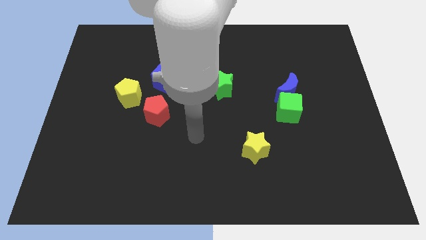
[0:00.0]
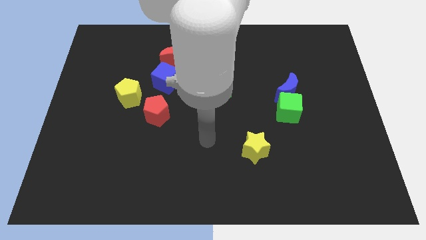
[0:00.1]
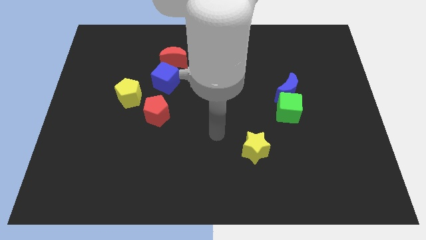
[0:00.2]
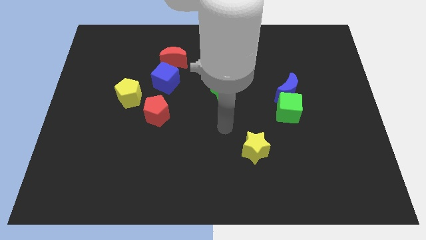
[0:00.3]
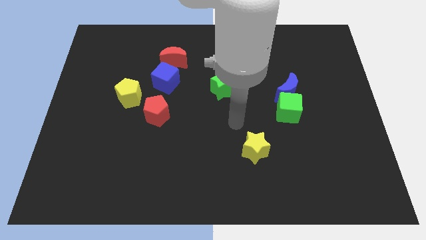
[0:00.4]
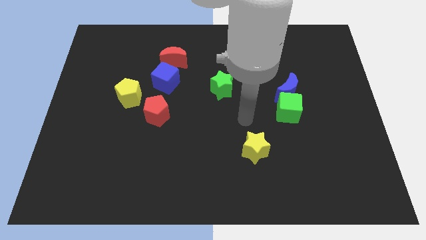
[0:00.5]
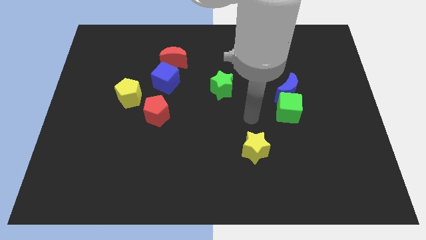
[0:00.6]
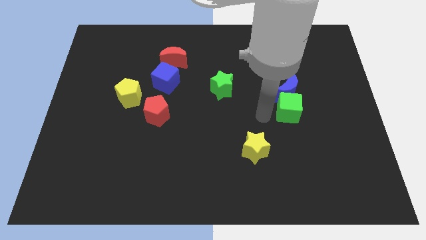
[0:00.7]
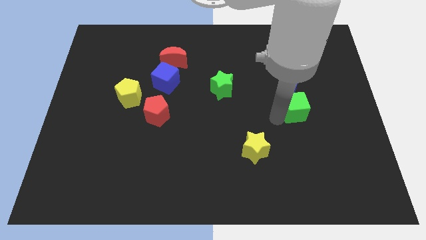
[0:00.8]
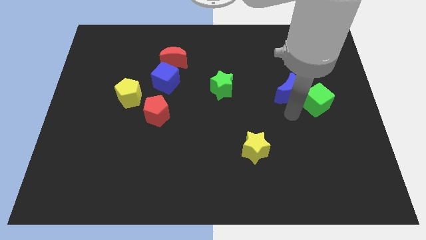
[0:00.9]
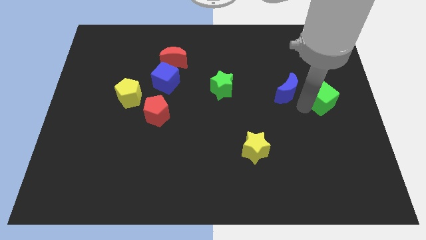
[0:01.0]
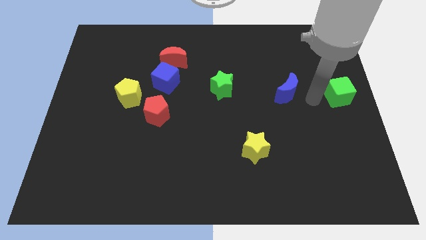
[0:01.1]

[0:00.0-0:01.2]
separate the blue moon from the green cube

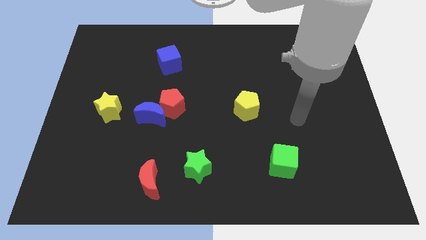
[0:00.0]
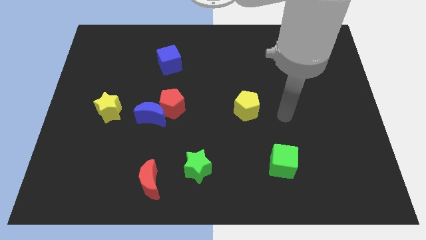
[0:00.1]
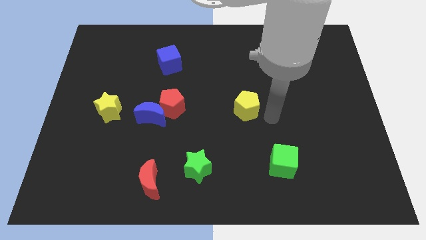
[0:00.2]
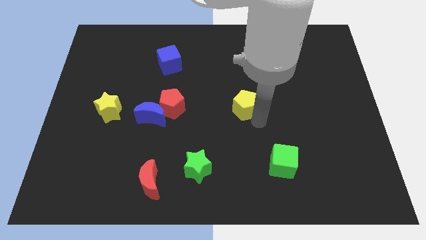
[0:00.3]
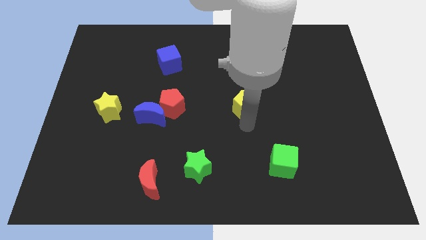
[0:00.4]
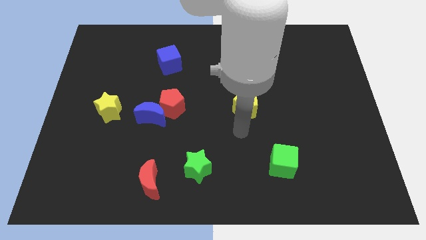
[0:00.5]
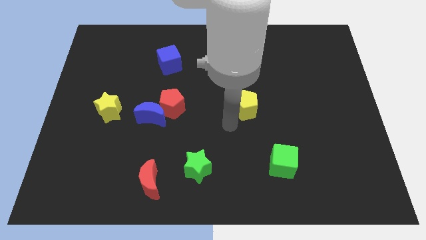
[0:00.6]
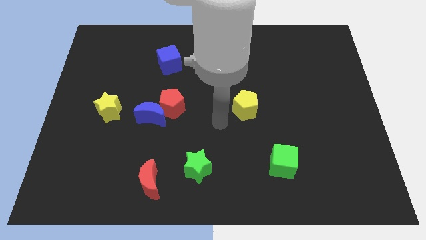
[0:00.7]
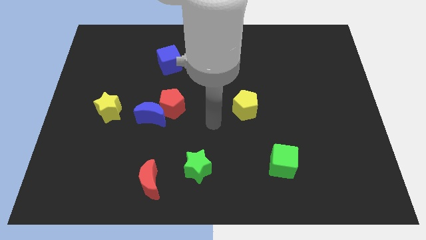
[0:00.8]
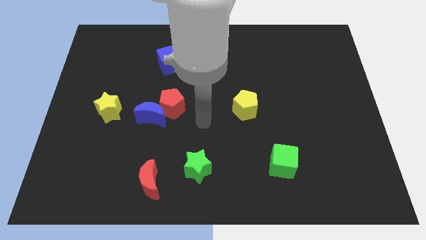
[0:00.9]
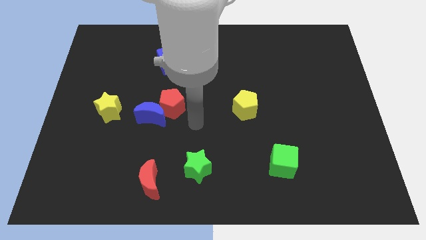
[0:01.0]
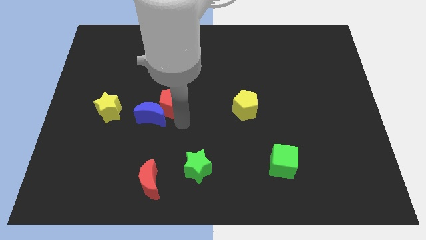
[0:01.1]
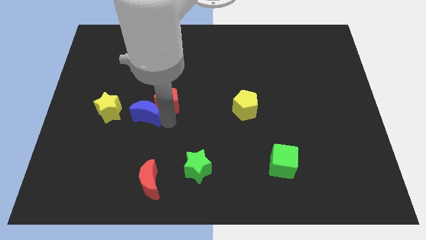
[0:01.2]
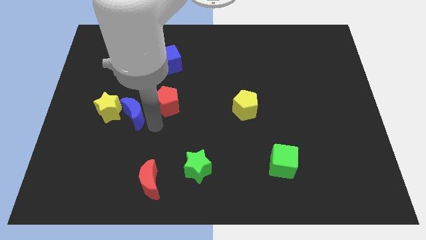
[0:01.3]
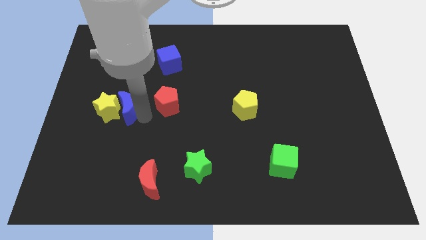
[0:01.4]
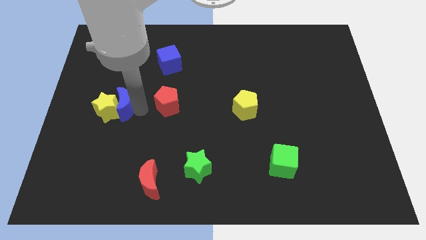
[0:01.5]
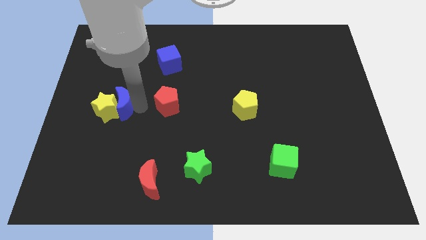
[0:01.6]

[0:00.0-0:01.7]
separate the red pentagon from the blue moon

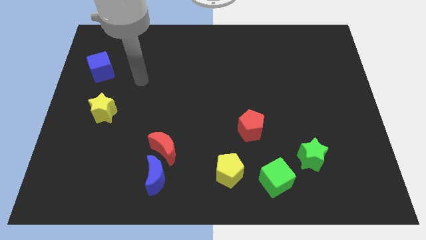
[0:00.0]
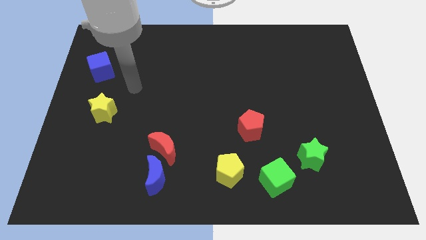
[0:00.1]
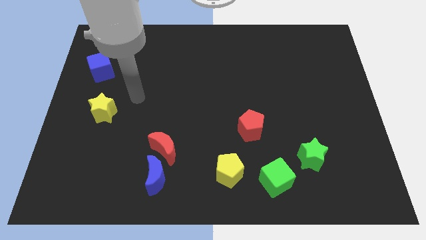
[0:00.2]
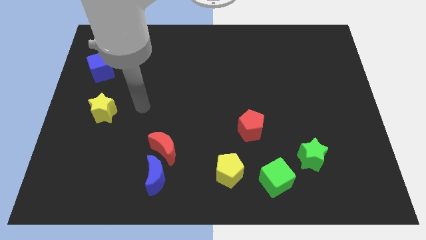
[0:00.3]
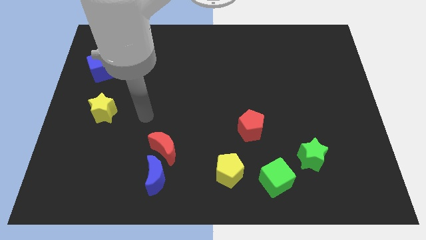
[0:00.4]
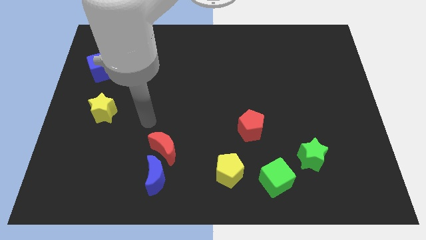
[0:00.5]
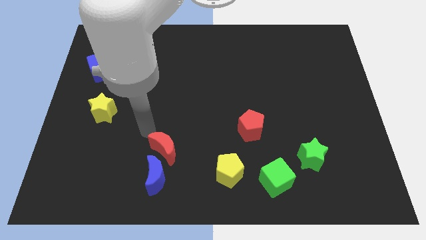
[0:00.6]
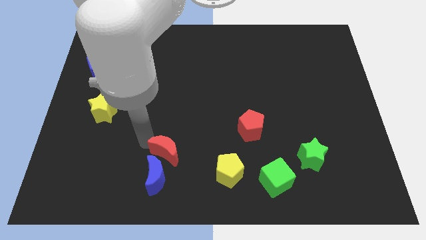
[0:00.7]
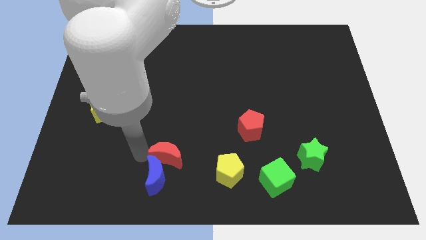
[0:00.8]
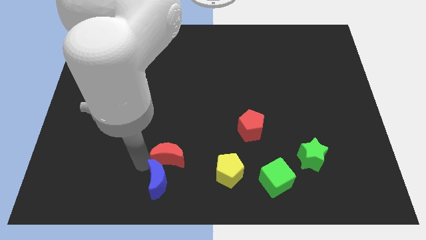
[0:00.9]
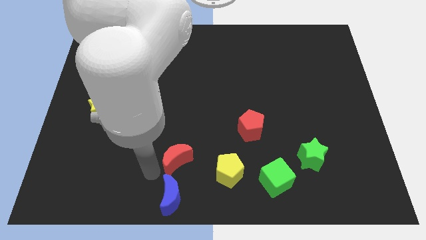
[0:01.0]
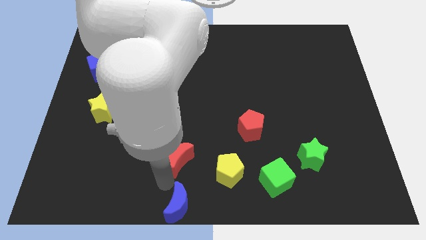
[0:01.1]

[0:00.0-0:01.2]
separate the red moon from the blue moon

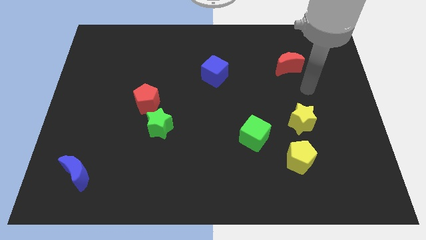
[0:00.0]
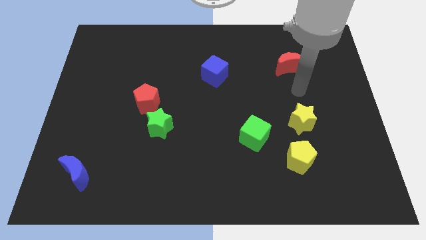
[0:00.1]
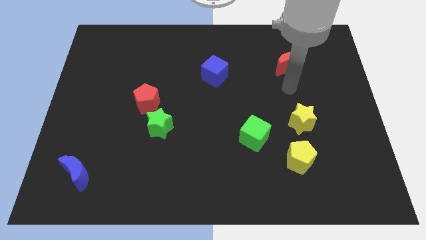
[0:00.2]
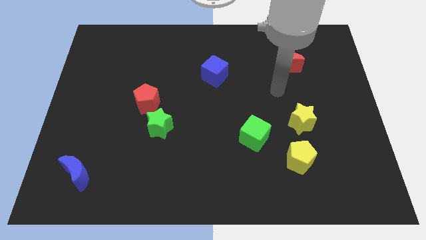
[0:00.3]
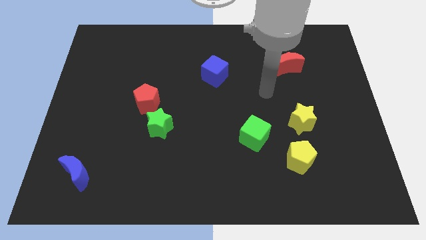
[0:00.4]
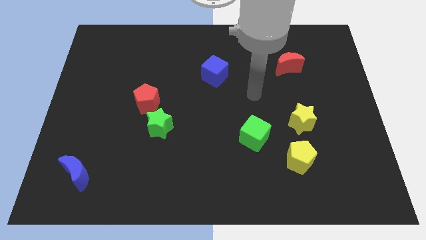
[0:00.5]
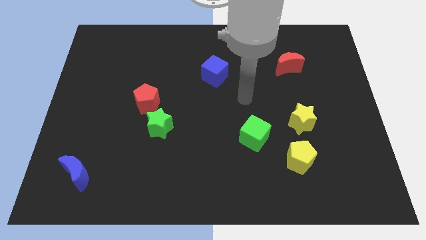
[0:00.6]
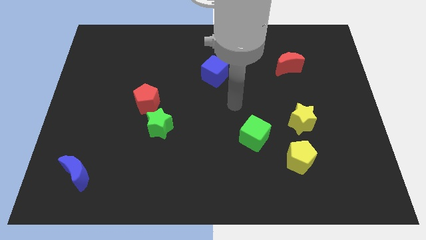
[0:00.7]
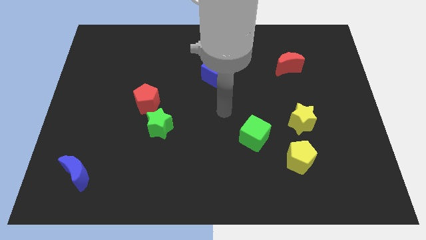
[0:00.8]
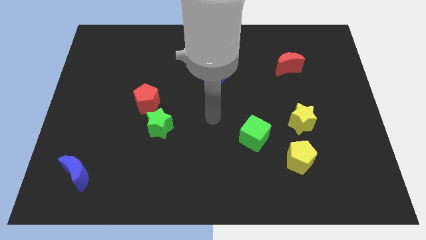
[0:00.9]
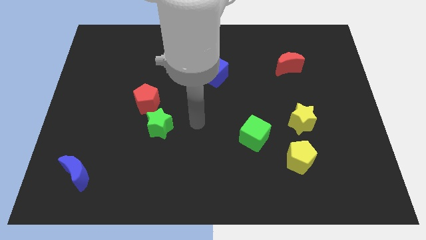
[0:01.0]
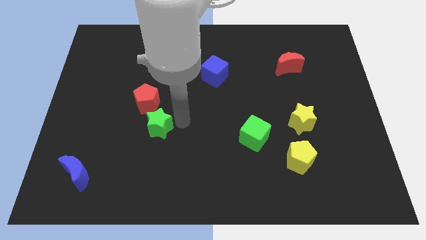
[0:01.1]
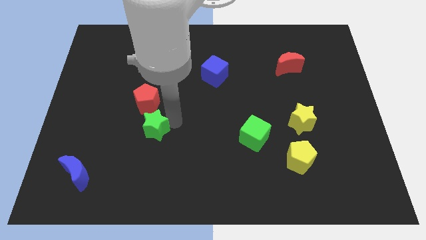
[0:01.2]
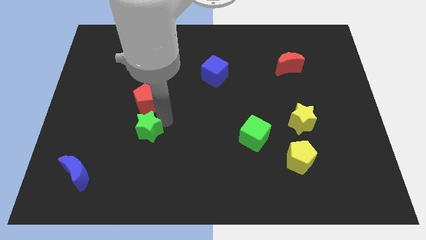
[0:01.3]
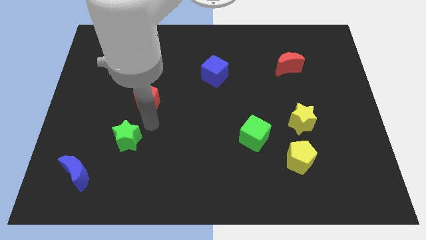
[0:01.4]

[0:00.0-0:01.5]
move the red pentagon away from the green star

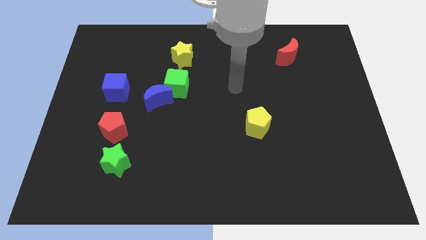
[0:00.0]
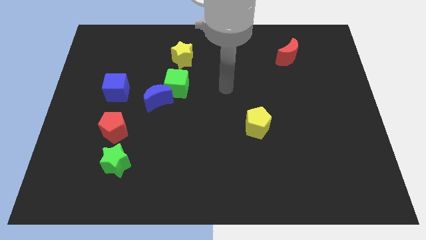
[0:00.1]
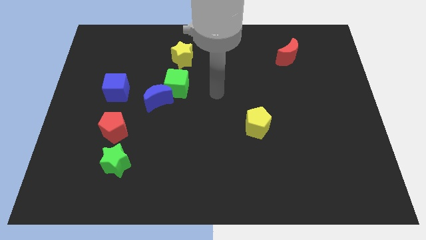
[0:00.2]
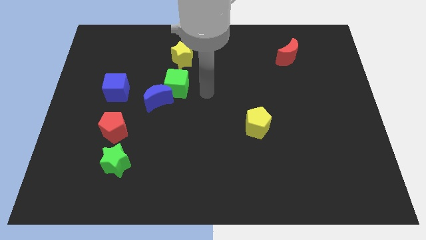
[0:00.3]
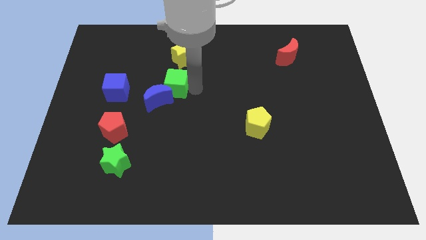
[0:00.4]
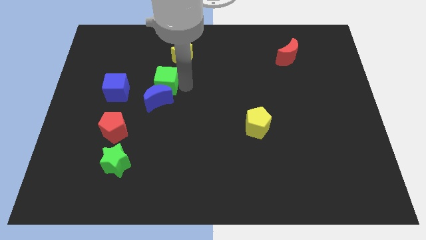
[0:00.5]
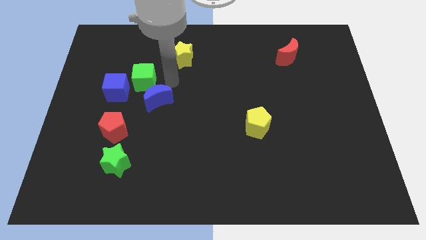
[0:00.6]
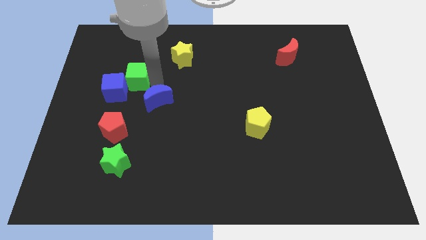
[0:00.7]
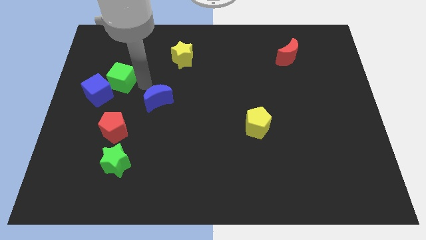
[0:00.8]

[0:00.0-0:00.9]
move the blue moon away from the green cube

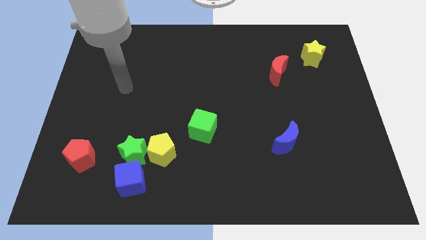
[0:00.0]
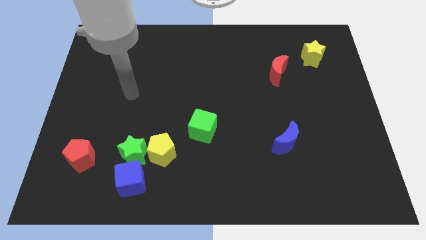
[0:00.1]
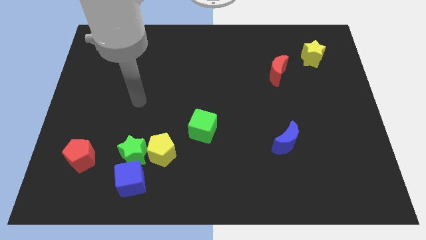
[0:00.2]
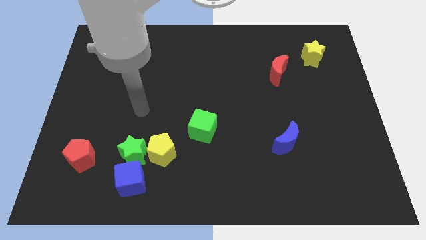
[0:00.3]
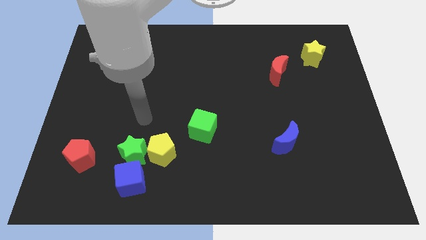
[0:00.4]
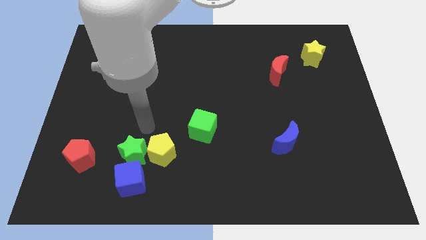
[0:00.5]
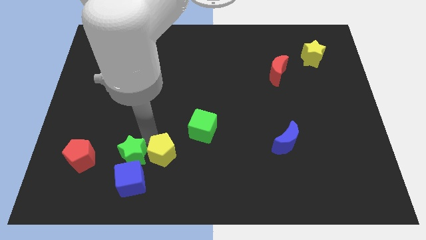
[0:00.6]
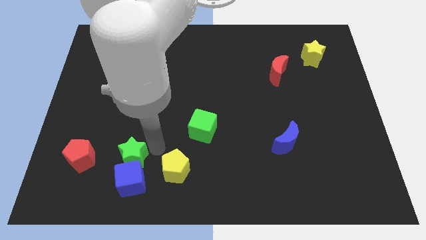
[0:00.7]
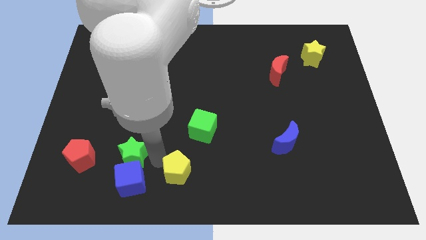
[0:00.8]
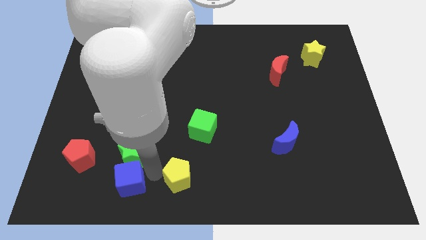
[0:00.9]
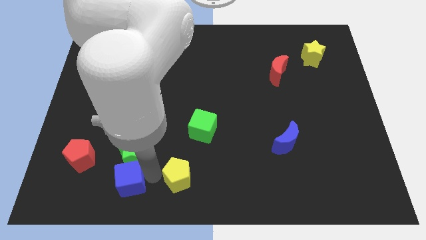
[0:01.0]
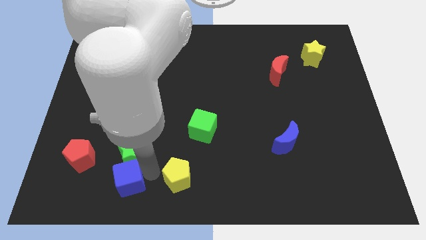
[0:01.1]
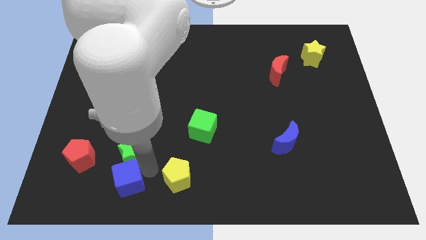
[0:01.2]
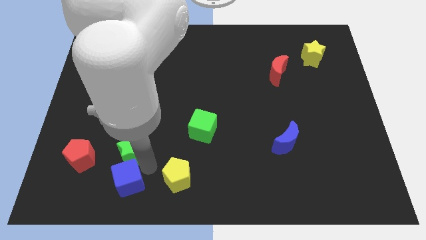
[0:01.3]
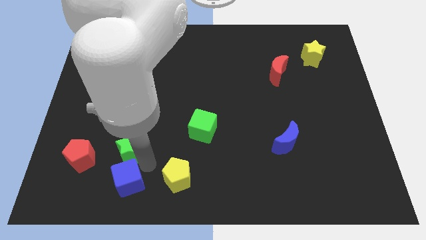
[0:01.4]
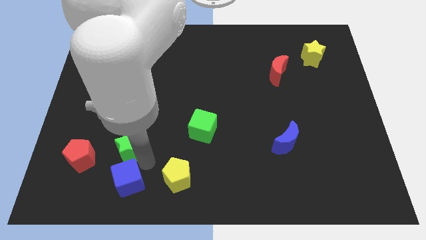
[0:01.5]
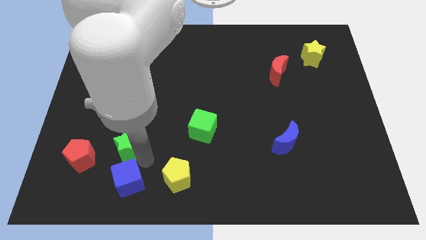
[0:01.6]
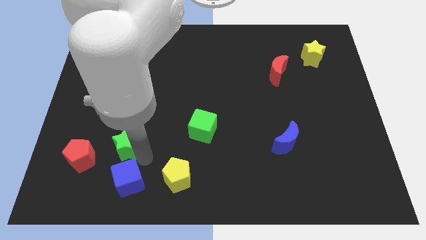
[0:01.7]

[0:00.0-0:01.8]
separate the green star from the yellow pentagon and blue cube

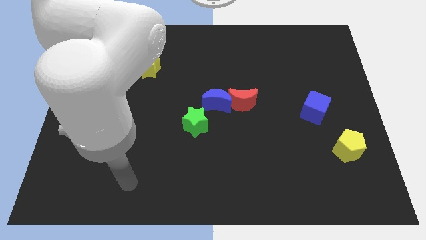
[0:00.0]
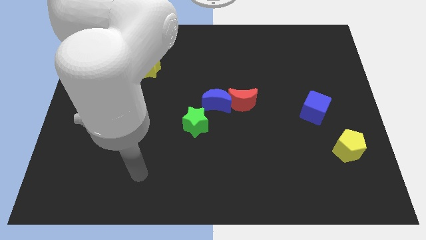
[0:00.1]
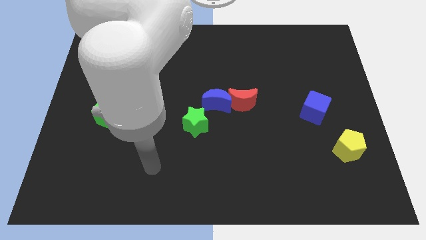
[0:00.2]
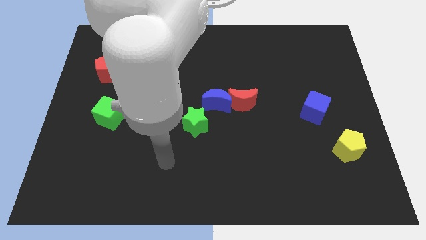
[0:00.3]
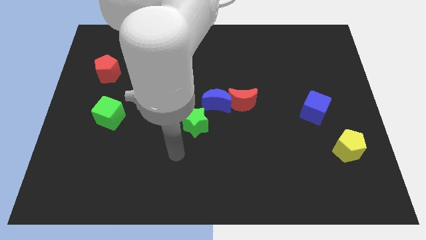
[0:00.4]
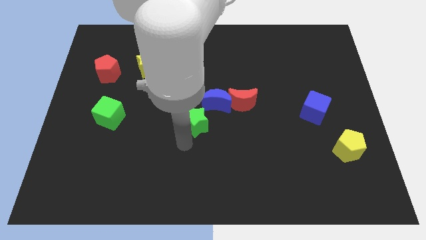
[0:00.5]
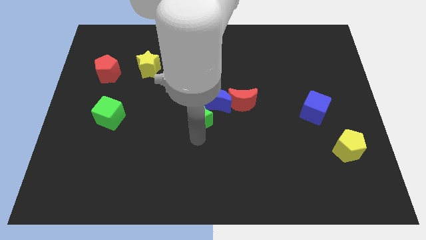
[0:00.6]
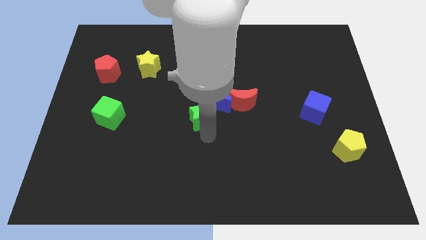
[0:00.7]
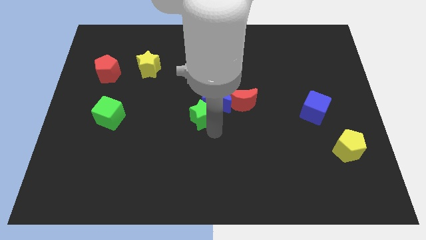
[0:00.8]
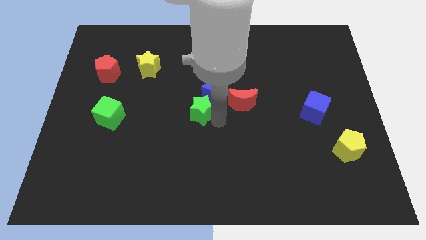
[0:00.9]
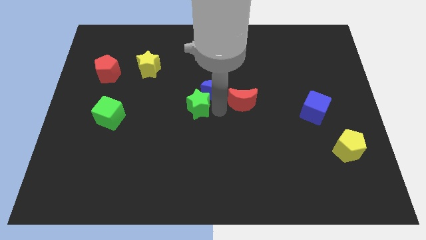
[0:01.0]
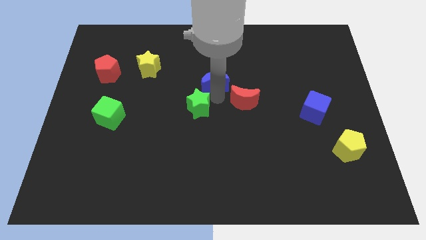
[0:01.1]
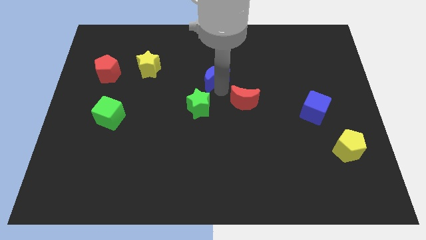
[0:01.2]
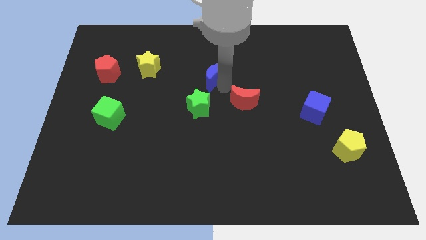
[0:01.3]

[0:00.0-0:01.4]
pull the red moon apart from the blue moon
